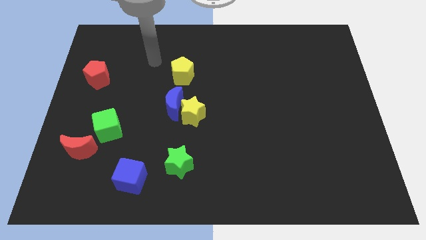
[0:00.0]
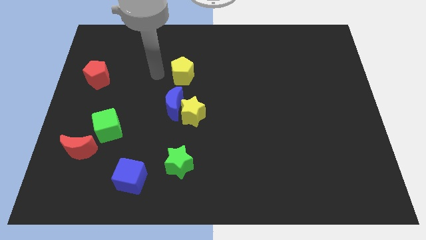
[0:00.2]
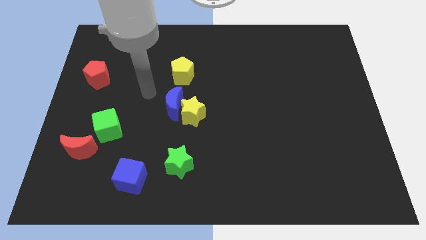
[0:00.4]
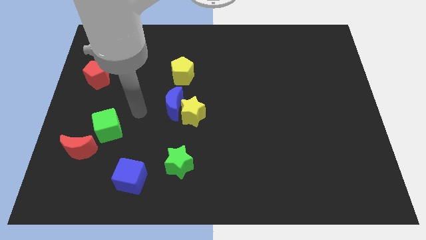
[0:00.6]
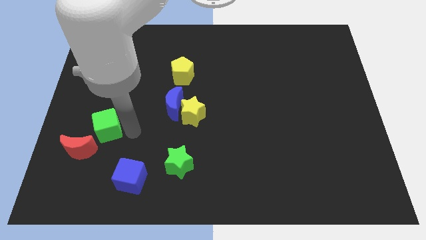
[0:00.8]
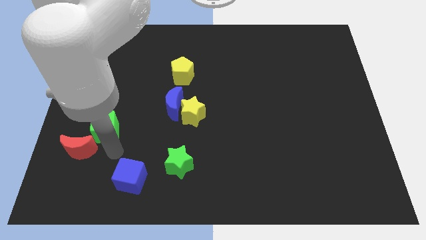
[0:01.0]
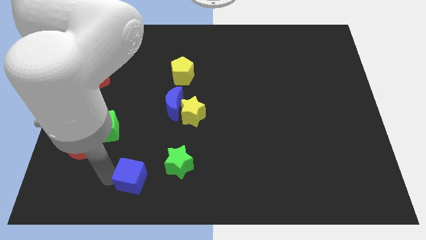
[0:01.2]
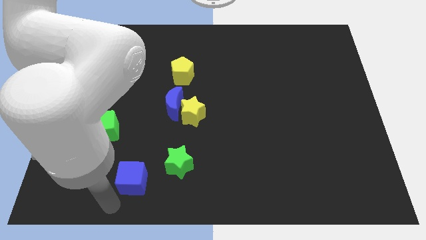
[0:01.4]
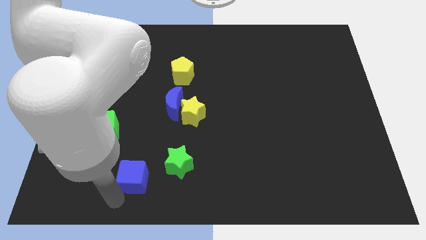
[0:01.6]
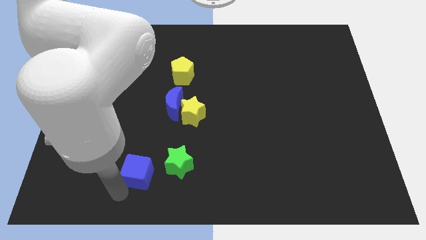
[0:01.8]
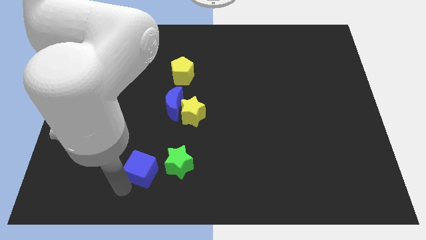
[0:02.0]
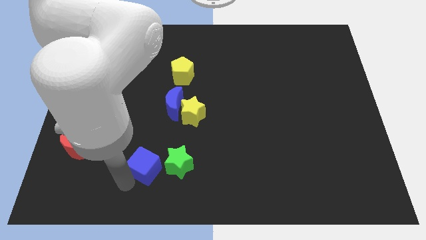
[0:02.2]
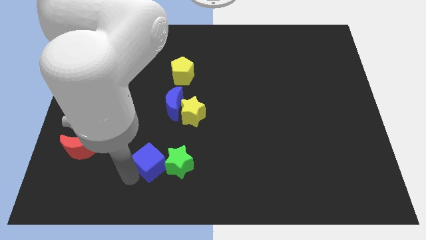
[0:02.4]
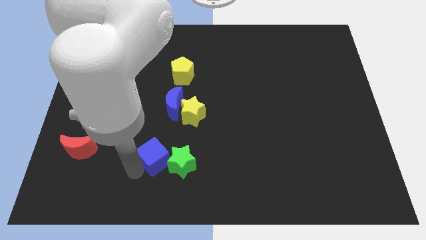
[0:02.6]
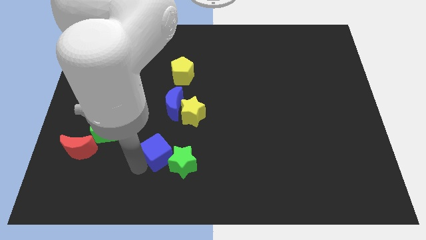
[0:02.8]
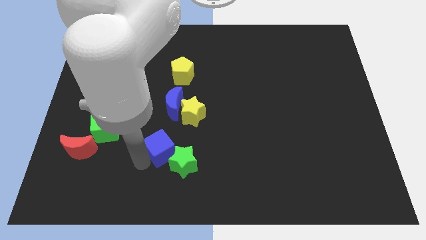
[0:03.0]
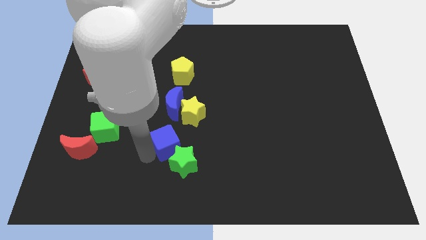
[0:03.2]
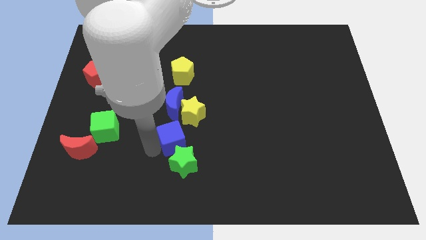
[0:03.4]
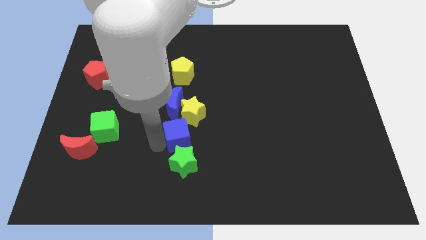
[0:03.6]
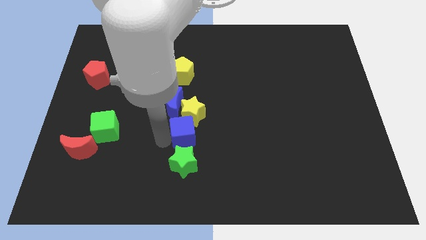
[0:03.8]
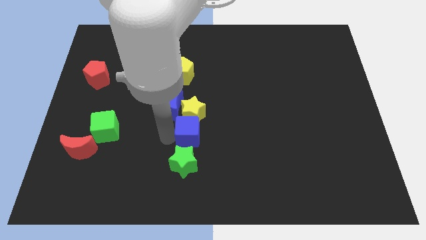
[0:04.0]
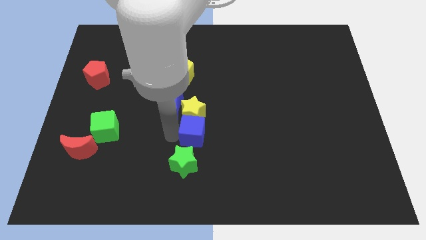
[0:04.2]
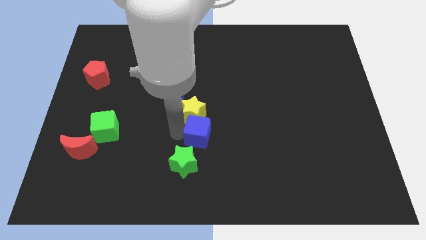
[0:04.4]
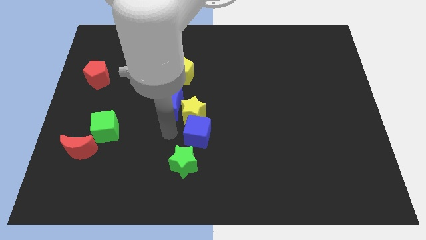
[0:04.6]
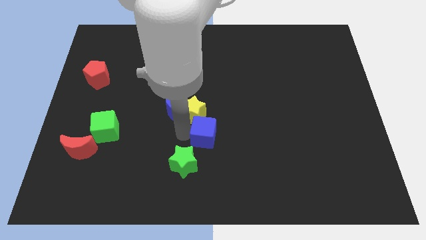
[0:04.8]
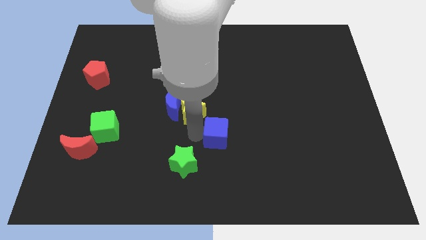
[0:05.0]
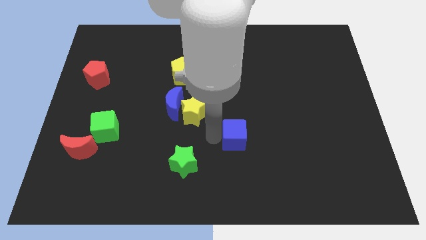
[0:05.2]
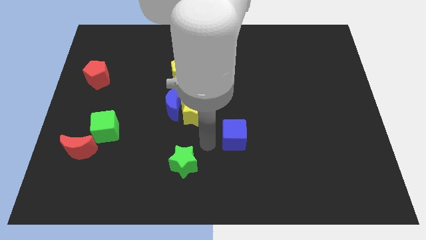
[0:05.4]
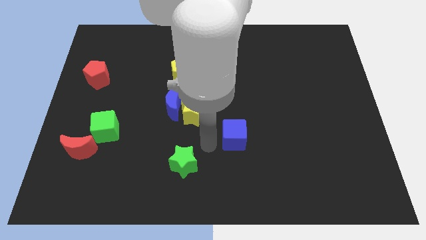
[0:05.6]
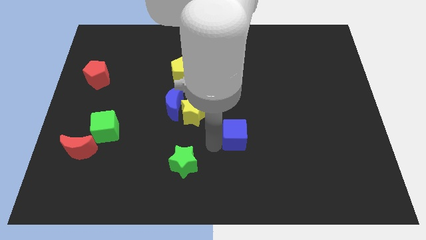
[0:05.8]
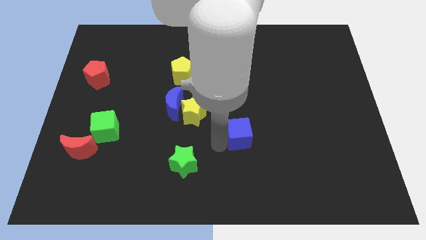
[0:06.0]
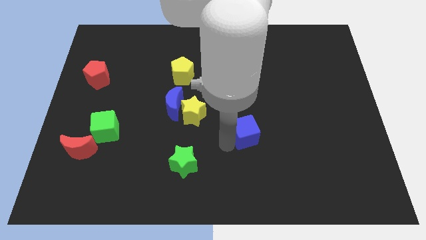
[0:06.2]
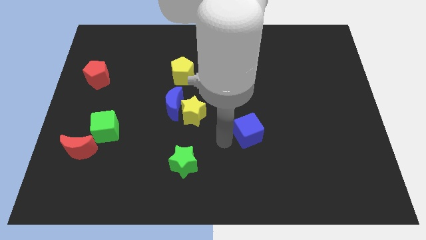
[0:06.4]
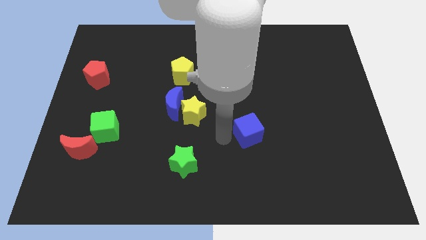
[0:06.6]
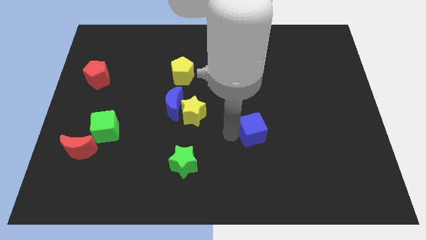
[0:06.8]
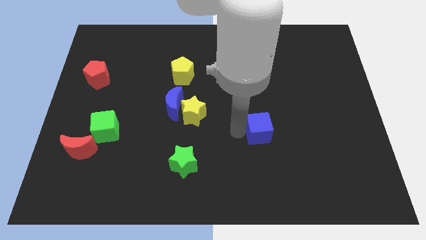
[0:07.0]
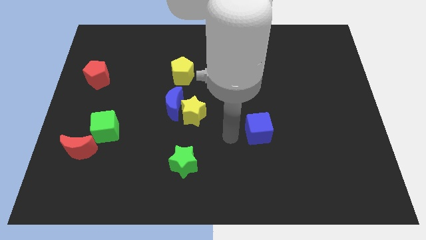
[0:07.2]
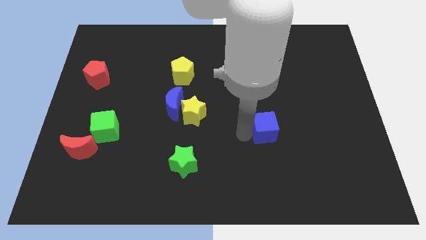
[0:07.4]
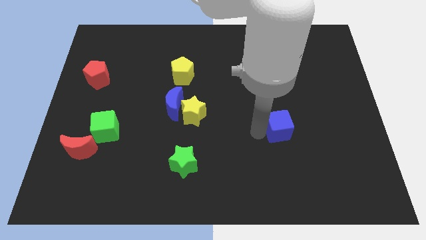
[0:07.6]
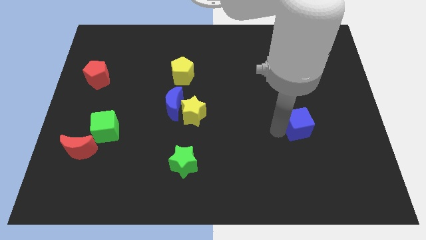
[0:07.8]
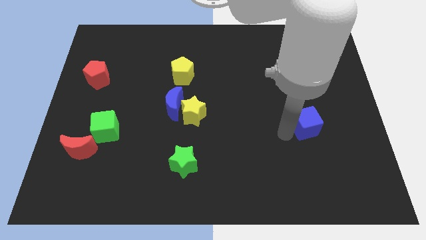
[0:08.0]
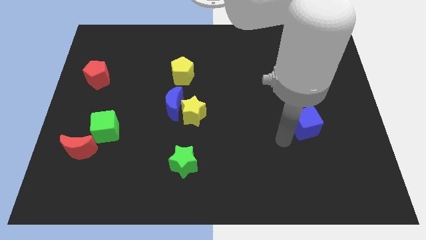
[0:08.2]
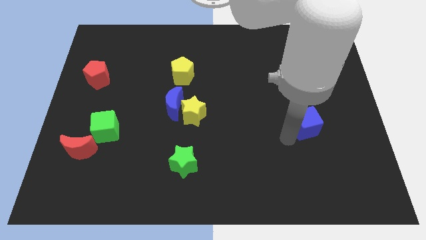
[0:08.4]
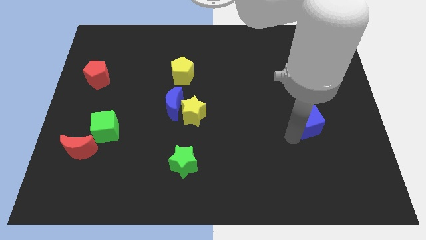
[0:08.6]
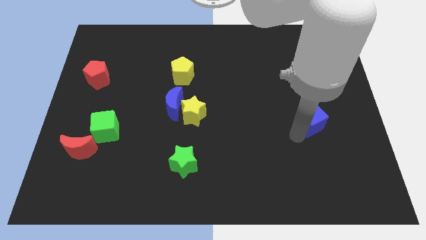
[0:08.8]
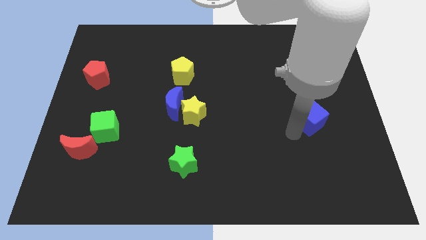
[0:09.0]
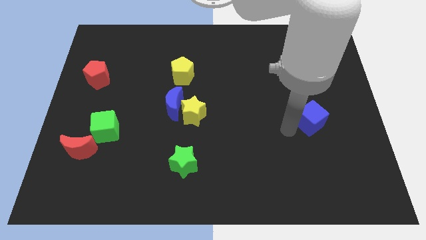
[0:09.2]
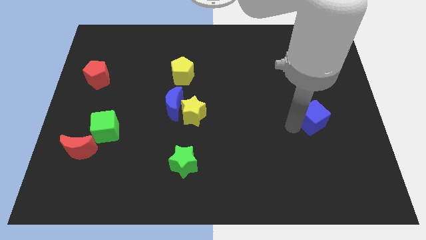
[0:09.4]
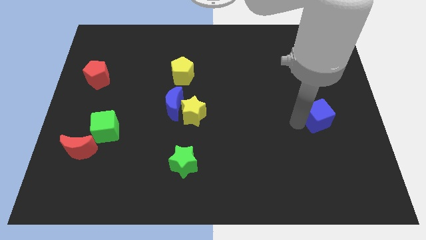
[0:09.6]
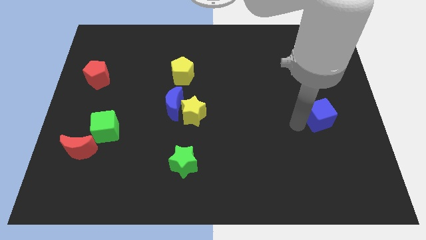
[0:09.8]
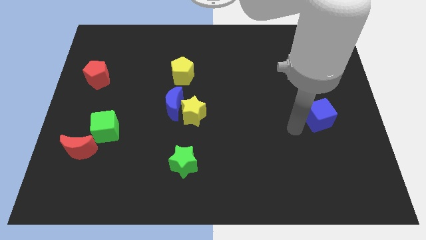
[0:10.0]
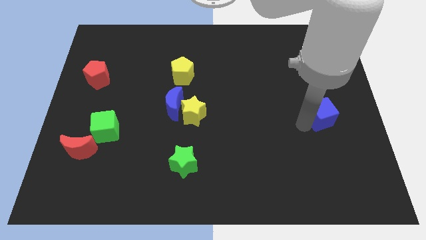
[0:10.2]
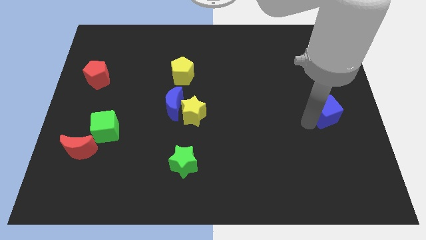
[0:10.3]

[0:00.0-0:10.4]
put the blue cube to the right side

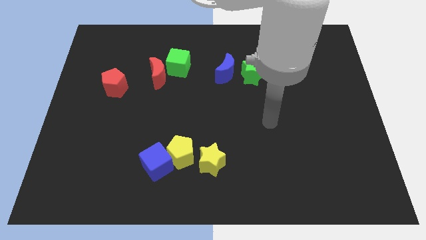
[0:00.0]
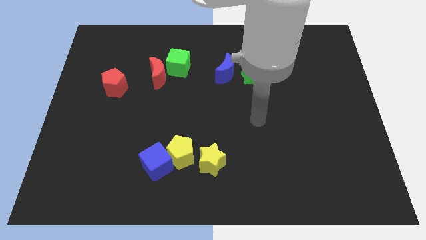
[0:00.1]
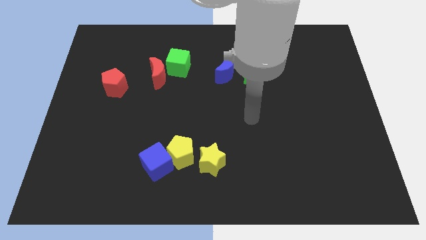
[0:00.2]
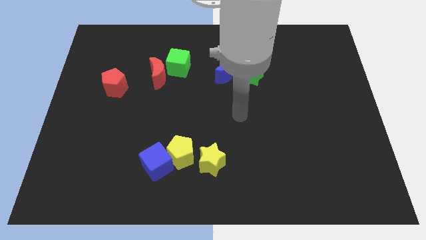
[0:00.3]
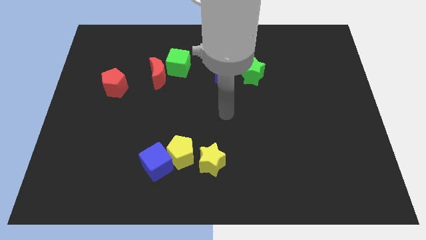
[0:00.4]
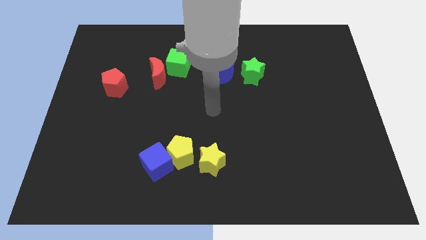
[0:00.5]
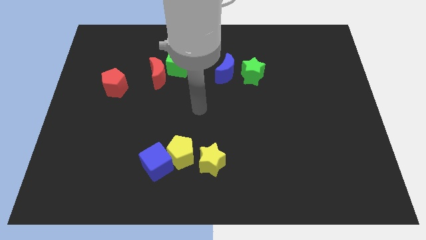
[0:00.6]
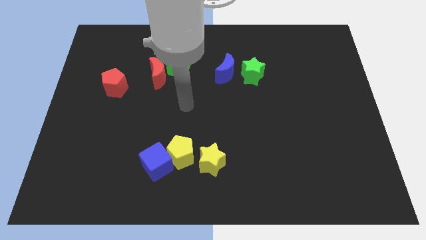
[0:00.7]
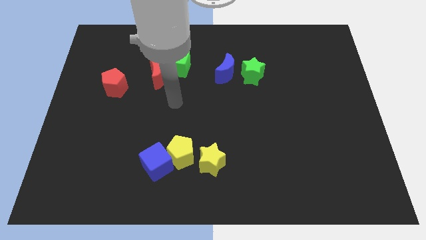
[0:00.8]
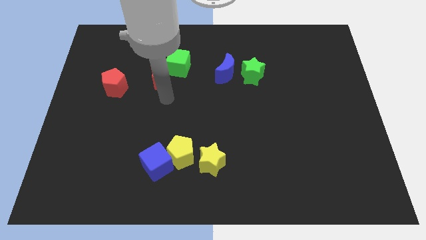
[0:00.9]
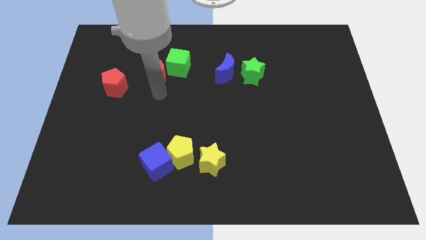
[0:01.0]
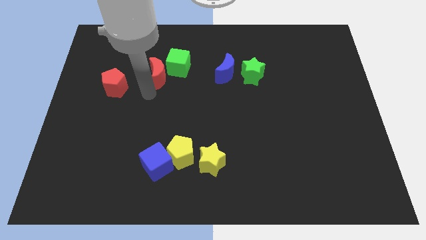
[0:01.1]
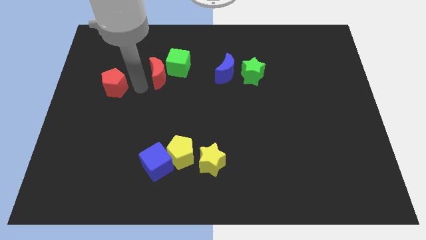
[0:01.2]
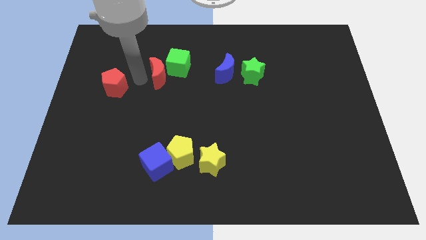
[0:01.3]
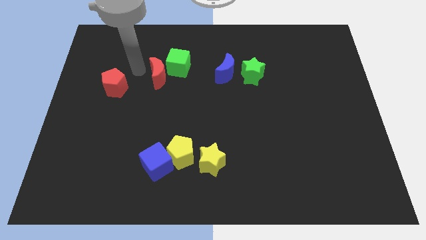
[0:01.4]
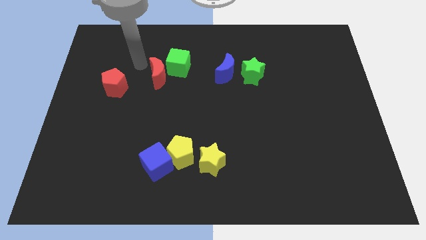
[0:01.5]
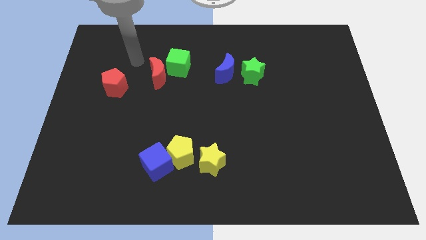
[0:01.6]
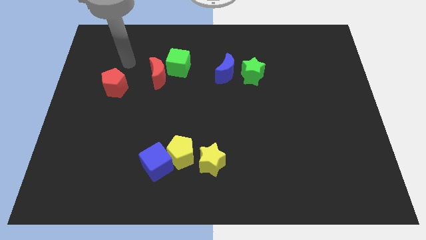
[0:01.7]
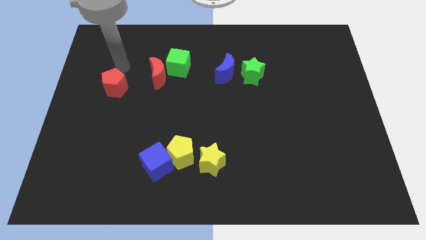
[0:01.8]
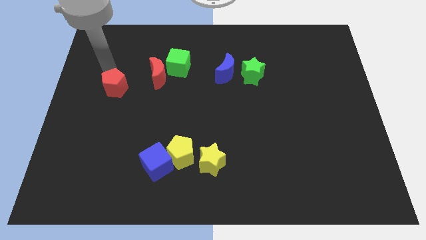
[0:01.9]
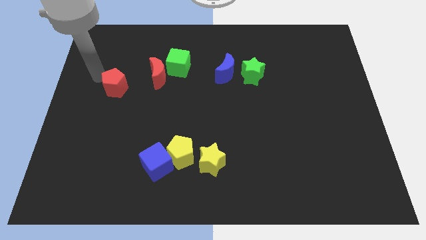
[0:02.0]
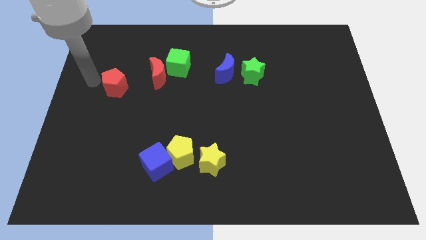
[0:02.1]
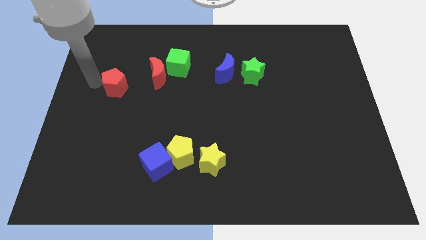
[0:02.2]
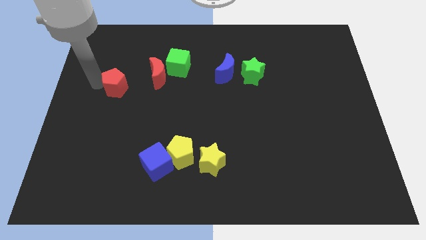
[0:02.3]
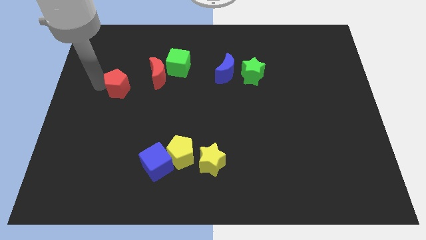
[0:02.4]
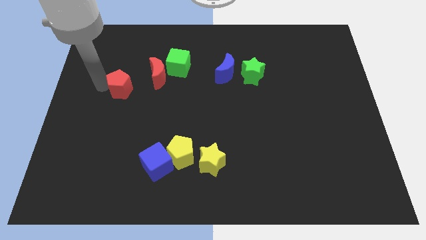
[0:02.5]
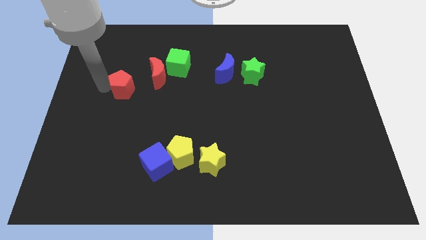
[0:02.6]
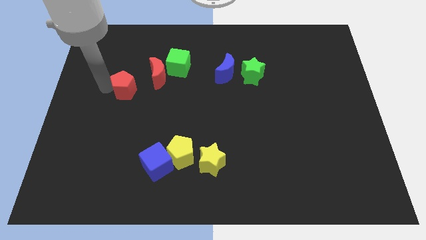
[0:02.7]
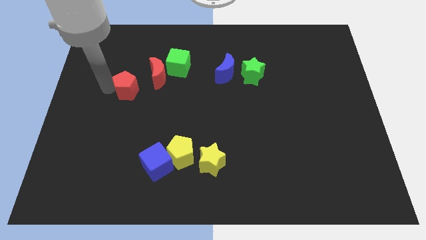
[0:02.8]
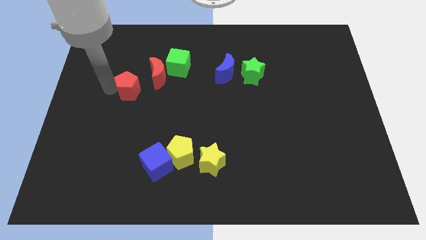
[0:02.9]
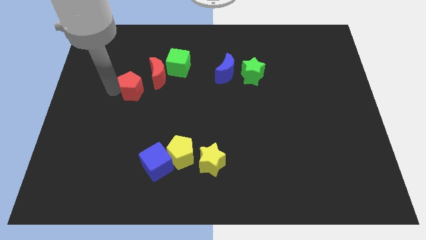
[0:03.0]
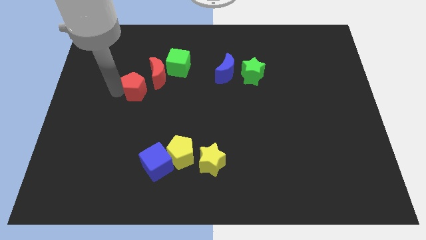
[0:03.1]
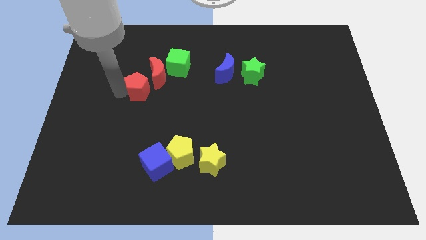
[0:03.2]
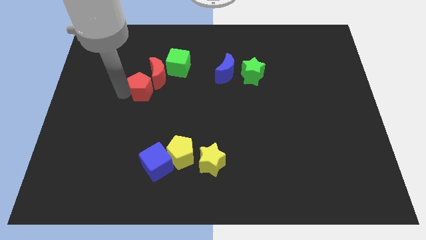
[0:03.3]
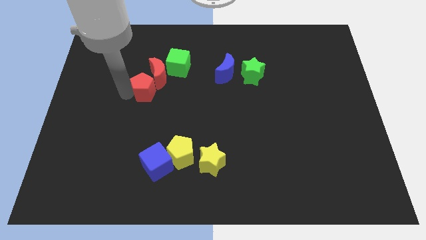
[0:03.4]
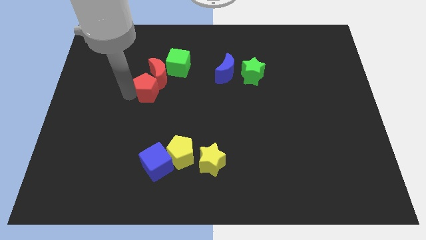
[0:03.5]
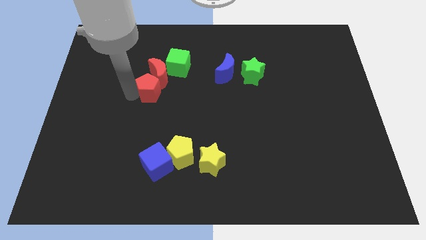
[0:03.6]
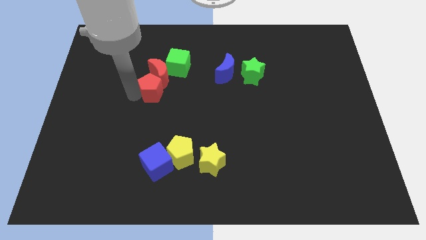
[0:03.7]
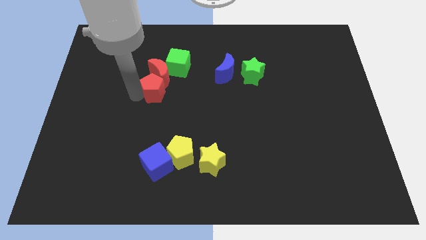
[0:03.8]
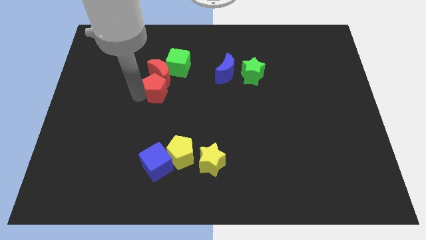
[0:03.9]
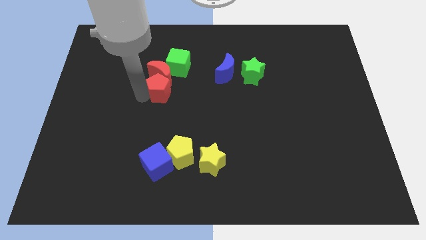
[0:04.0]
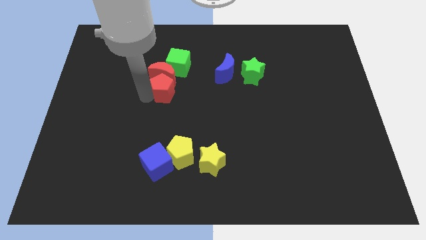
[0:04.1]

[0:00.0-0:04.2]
push the red pentagon to the middle of the board
